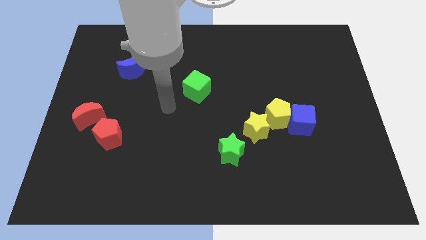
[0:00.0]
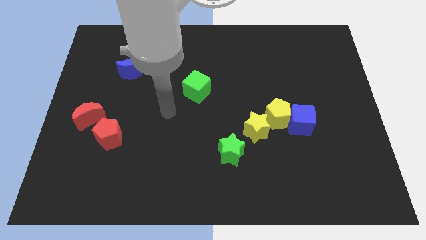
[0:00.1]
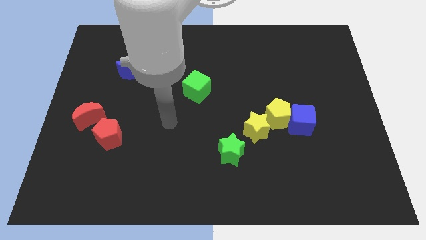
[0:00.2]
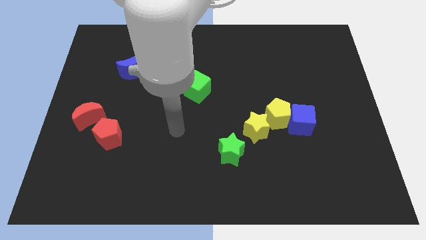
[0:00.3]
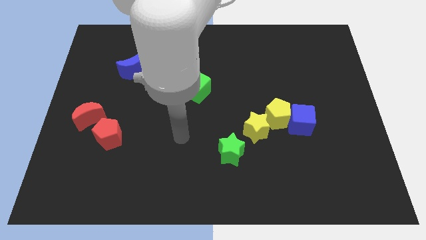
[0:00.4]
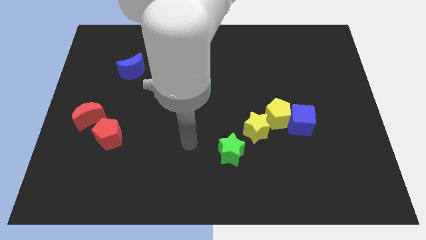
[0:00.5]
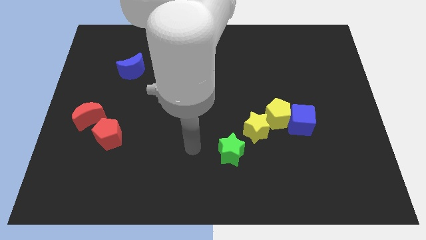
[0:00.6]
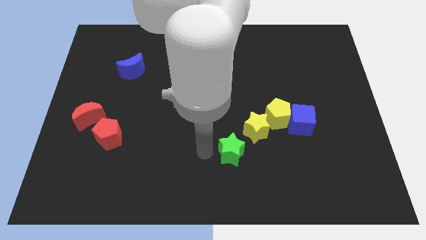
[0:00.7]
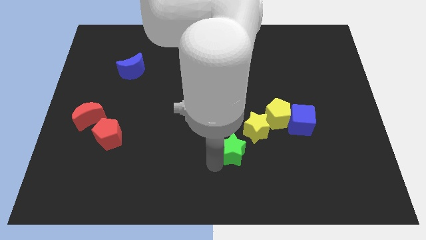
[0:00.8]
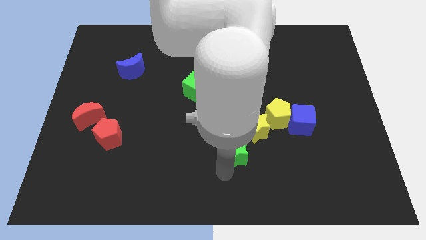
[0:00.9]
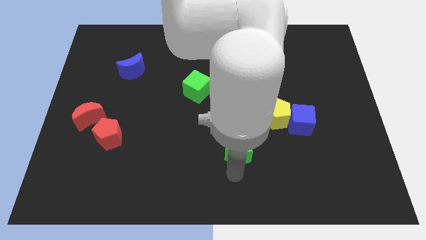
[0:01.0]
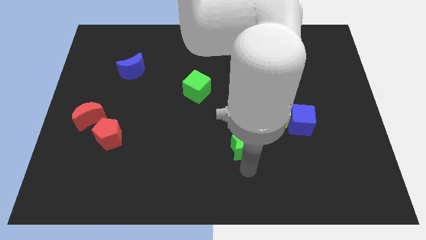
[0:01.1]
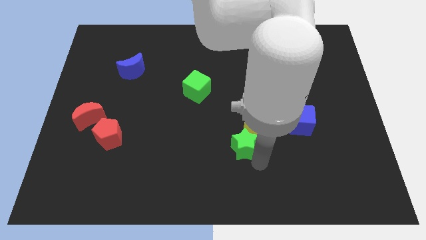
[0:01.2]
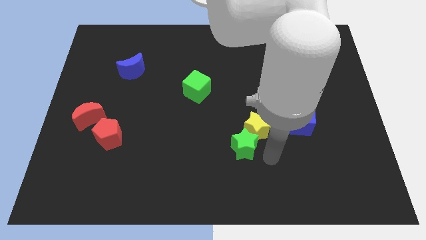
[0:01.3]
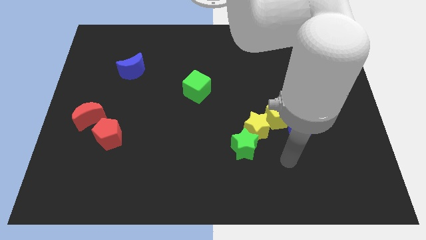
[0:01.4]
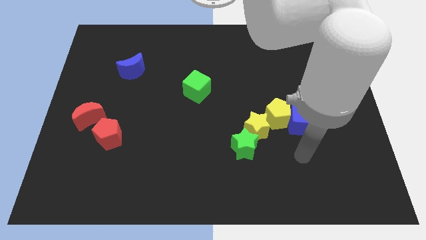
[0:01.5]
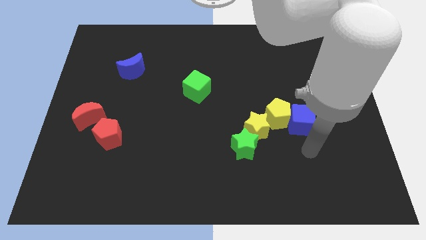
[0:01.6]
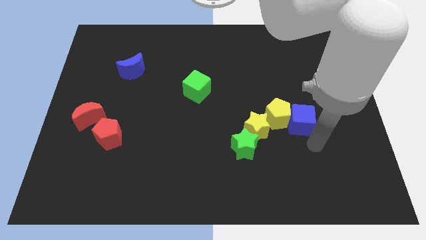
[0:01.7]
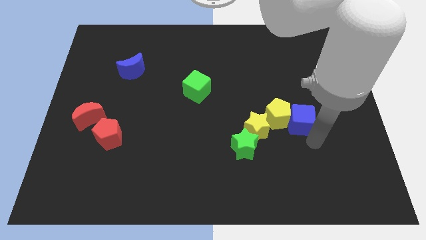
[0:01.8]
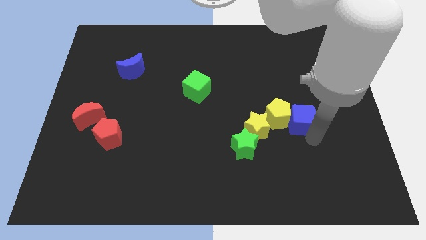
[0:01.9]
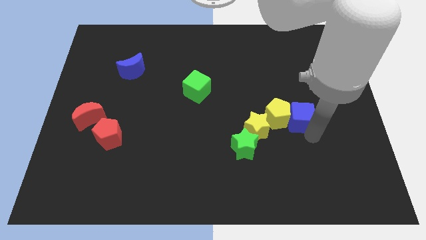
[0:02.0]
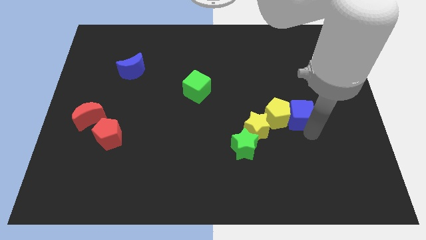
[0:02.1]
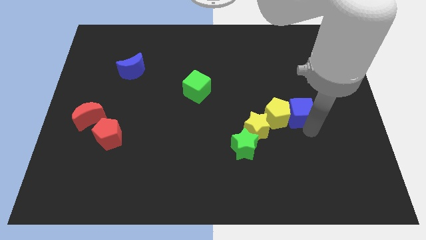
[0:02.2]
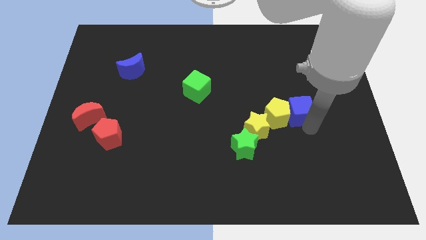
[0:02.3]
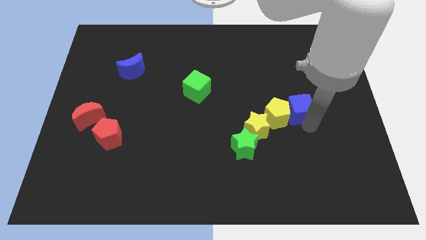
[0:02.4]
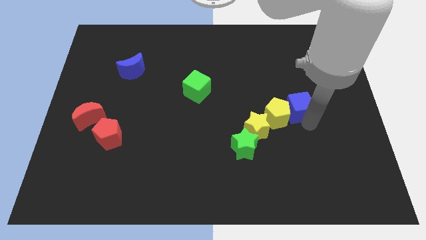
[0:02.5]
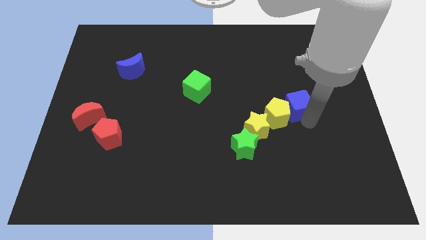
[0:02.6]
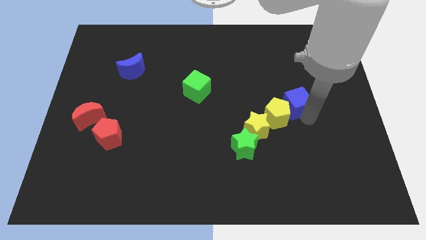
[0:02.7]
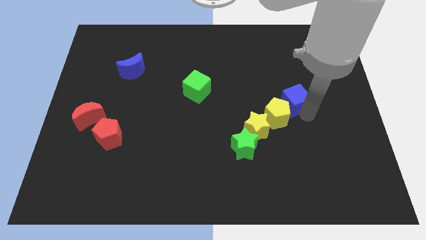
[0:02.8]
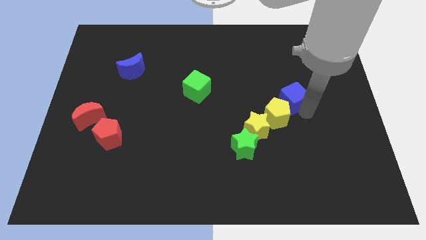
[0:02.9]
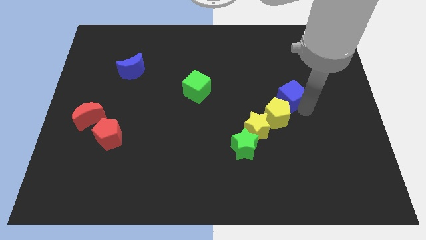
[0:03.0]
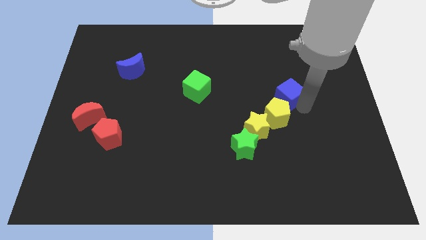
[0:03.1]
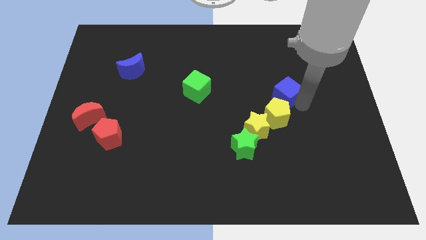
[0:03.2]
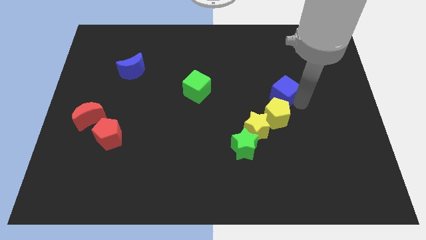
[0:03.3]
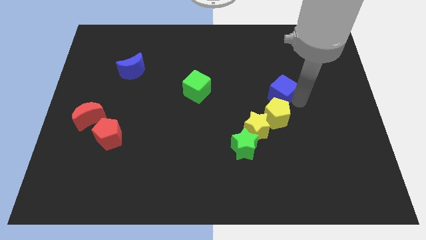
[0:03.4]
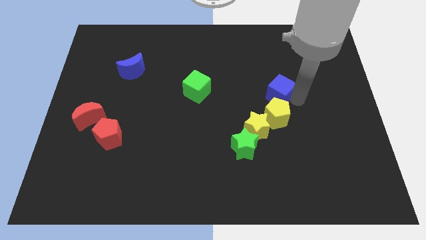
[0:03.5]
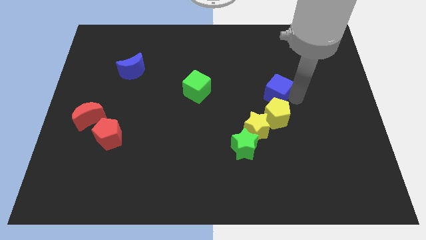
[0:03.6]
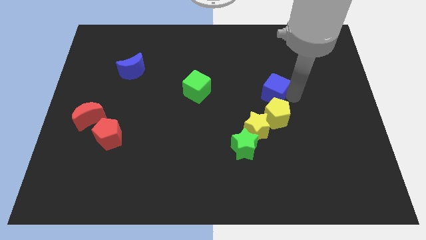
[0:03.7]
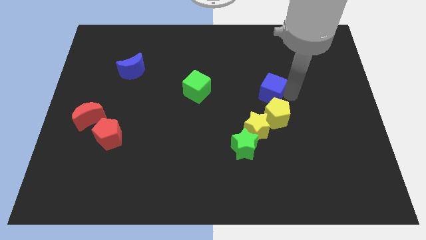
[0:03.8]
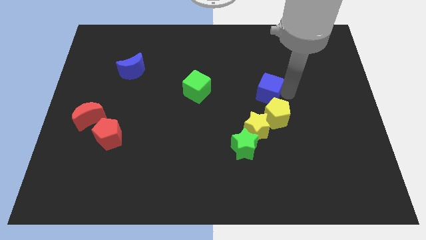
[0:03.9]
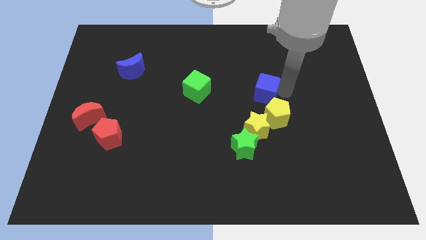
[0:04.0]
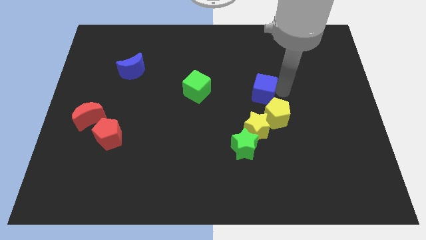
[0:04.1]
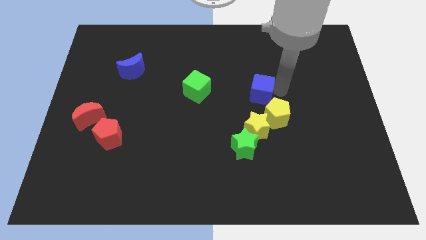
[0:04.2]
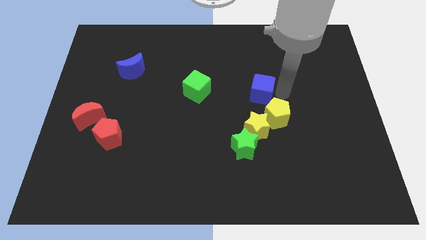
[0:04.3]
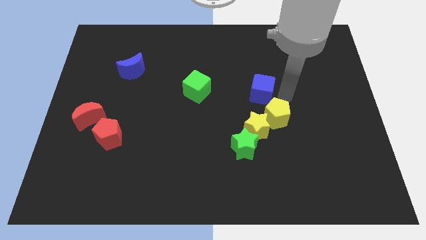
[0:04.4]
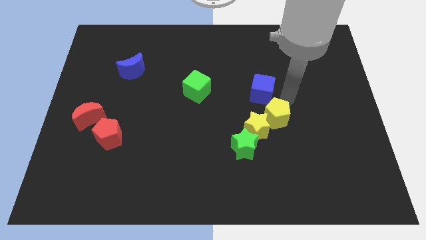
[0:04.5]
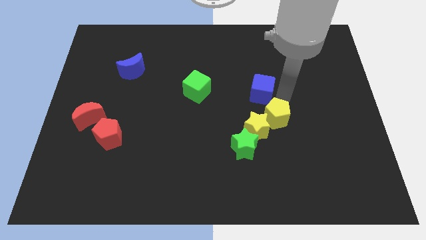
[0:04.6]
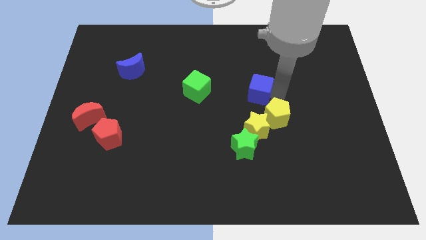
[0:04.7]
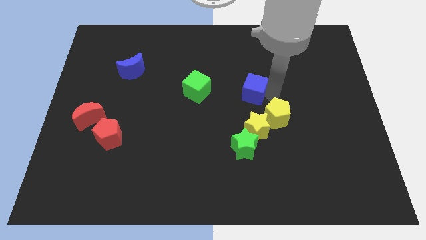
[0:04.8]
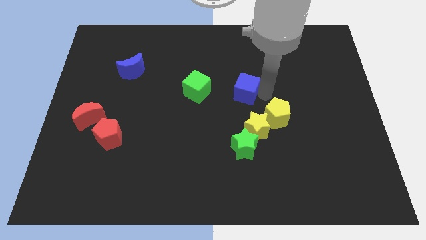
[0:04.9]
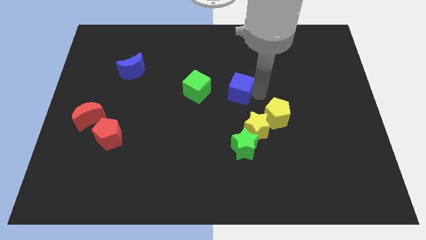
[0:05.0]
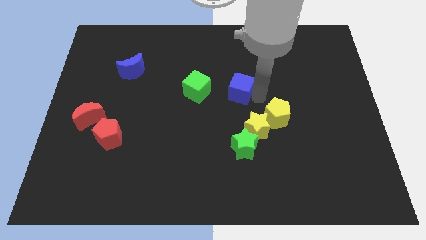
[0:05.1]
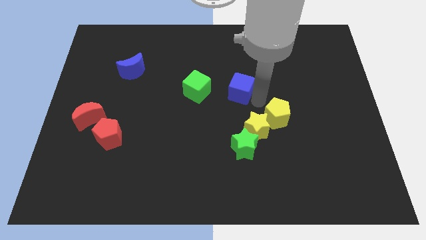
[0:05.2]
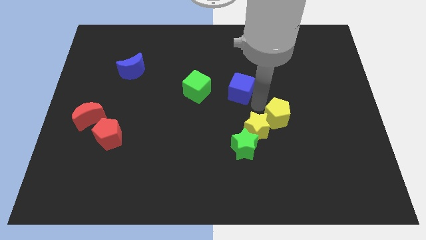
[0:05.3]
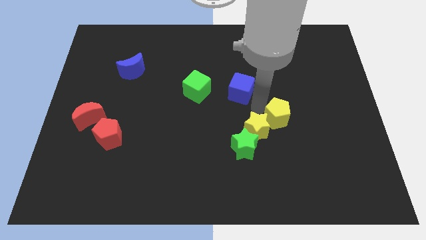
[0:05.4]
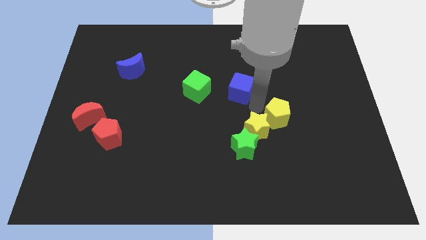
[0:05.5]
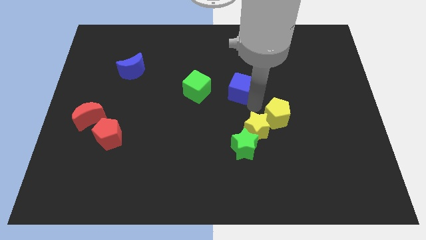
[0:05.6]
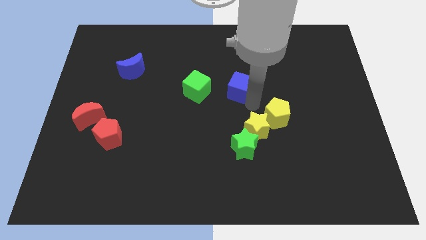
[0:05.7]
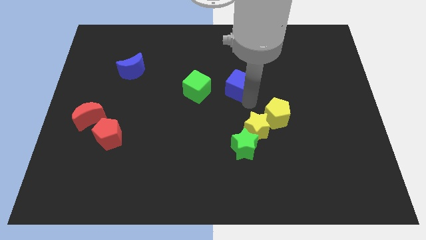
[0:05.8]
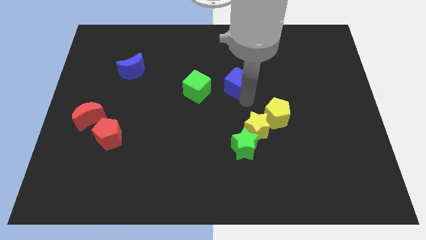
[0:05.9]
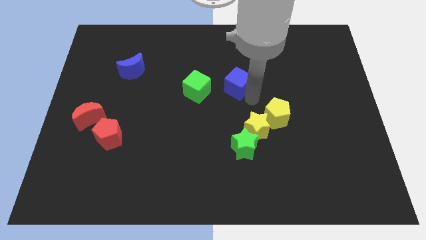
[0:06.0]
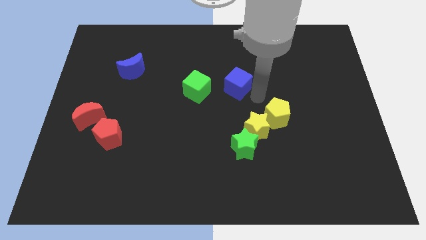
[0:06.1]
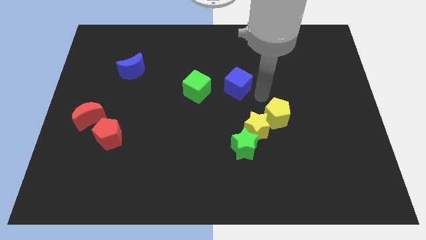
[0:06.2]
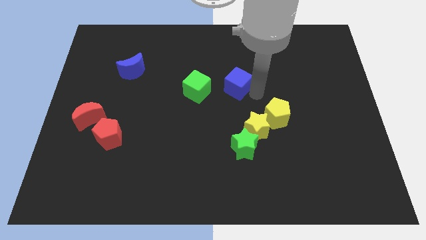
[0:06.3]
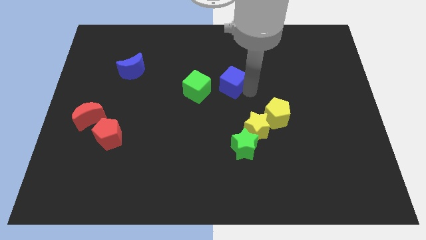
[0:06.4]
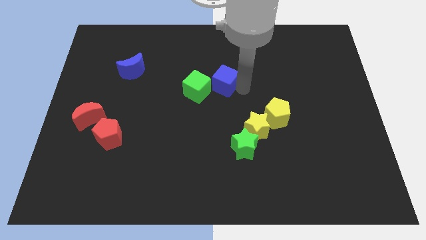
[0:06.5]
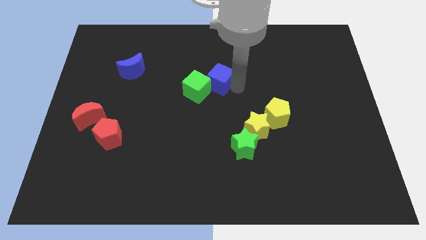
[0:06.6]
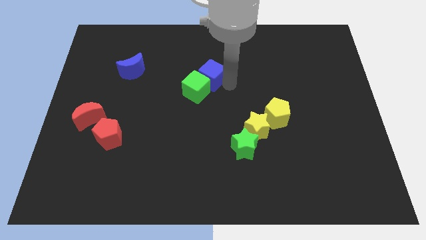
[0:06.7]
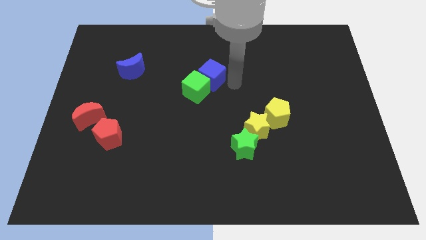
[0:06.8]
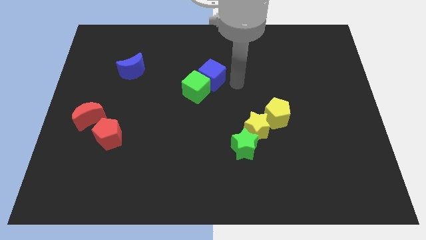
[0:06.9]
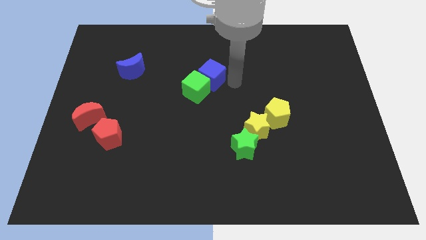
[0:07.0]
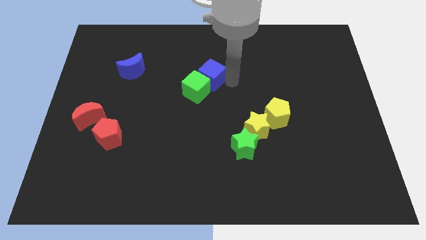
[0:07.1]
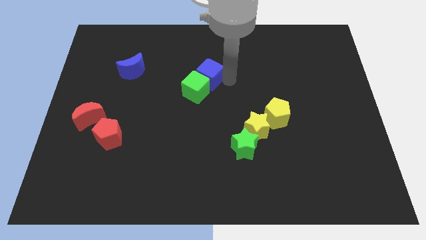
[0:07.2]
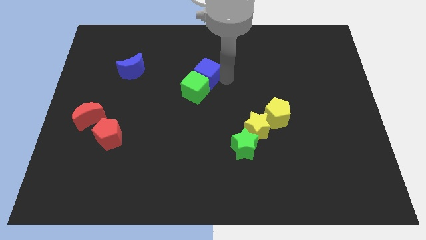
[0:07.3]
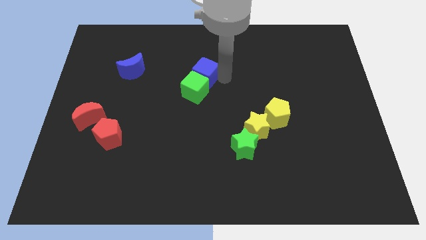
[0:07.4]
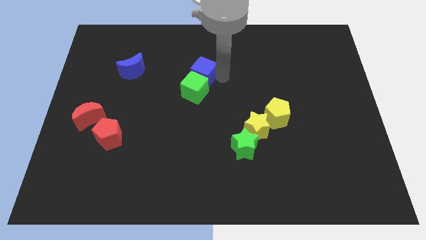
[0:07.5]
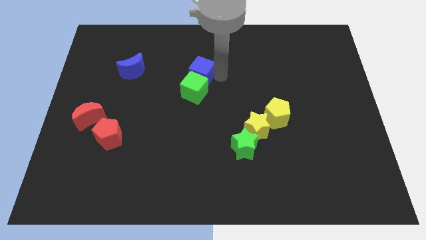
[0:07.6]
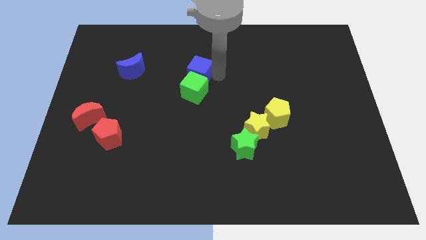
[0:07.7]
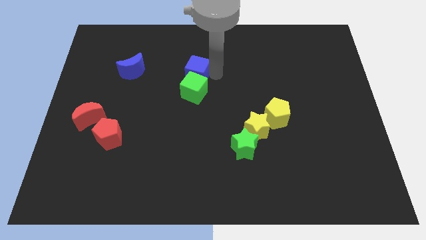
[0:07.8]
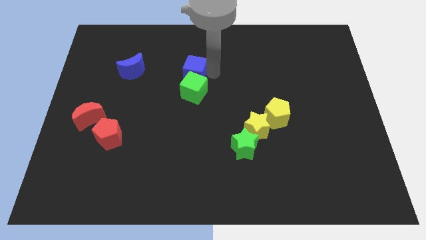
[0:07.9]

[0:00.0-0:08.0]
push the blue cube just right of the blue moon
